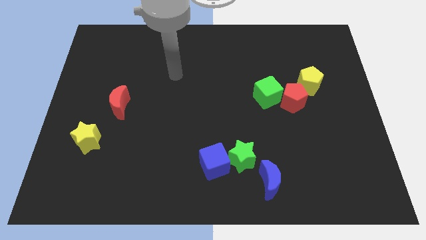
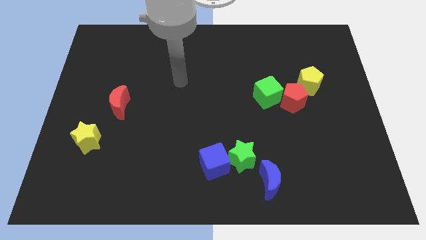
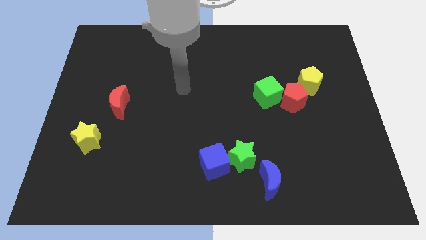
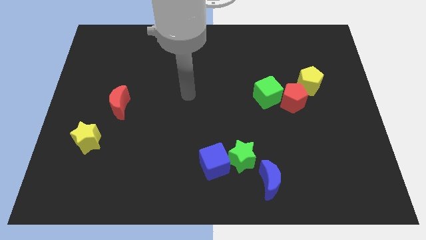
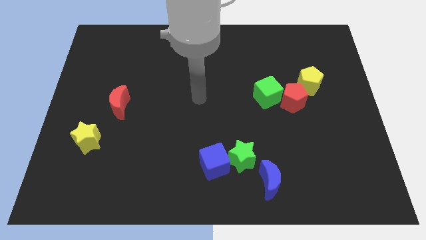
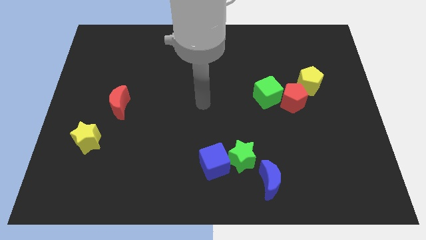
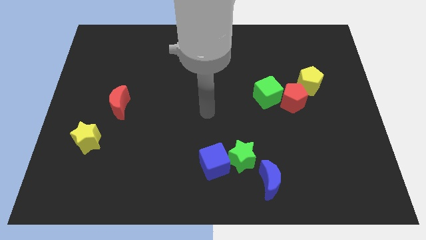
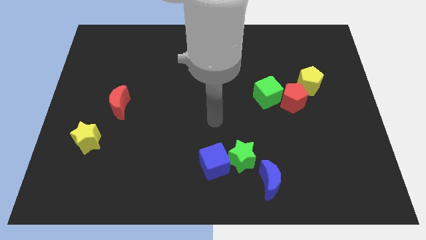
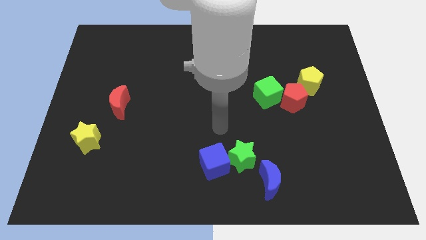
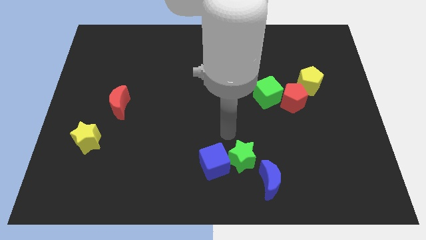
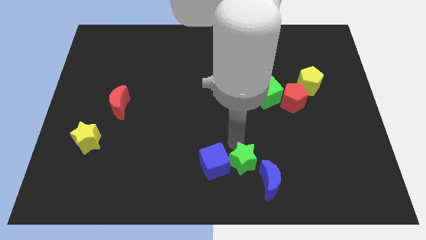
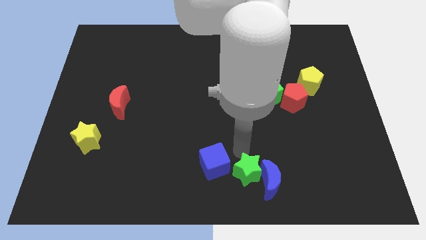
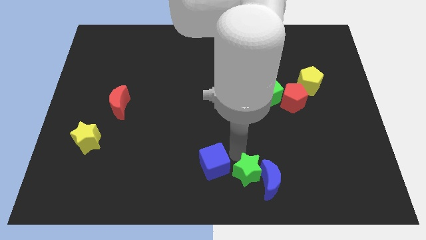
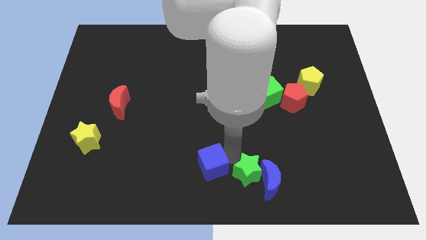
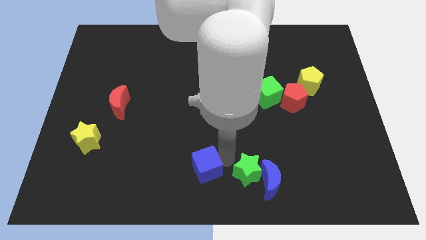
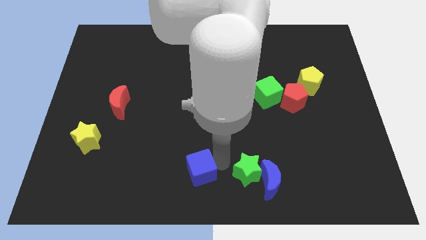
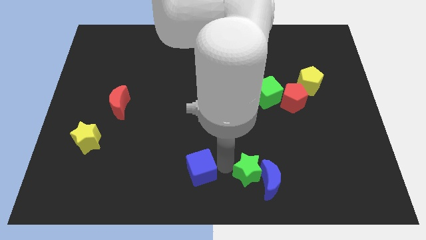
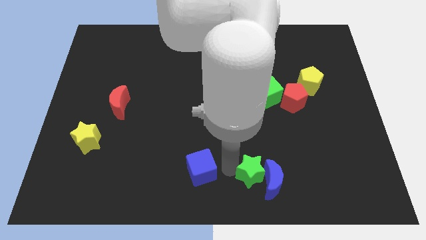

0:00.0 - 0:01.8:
pull the blue cube apart from the green star

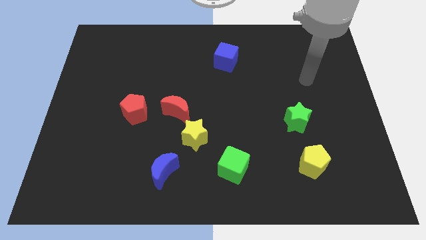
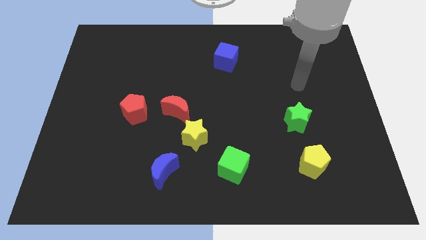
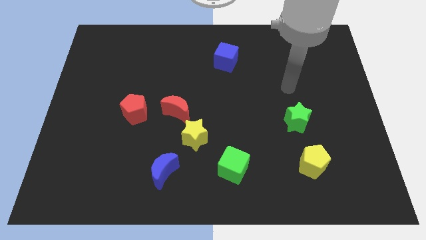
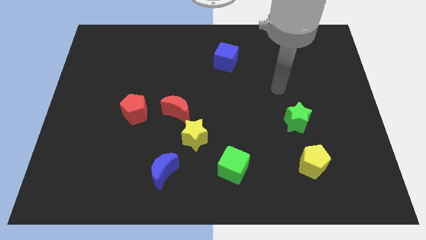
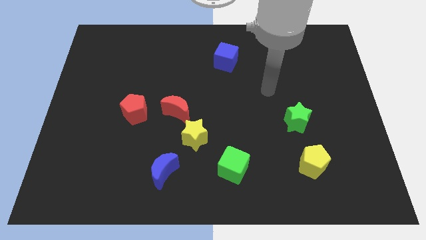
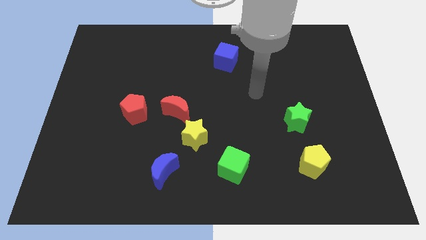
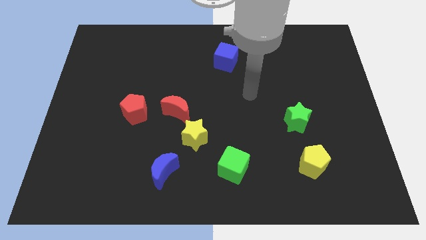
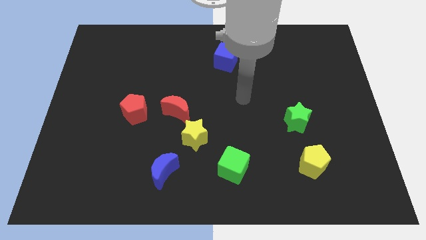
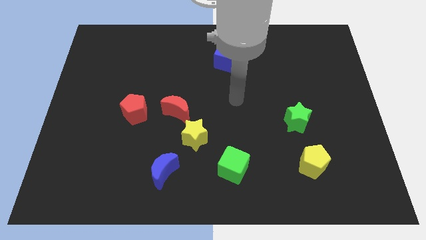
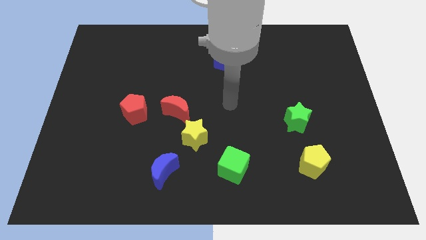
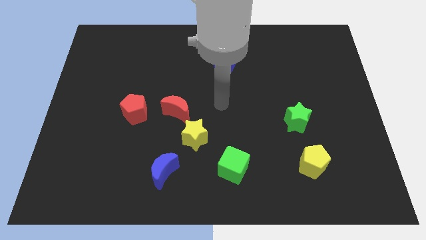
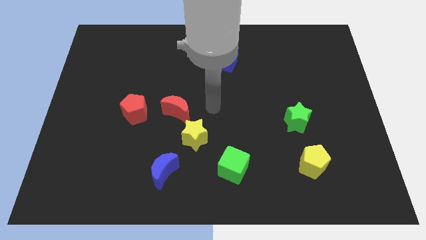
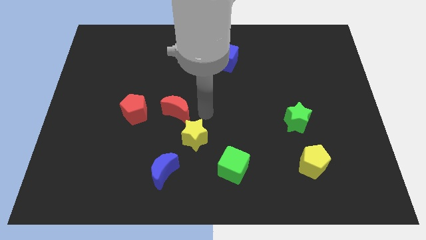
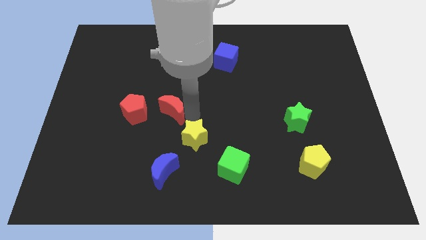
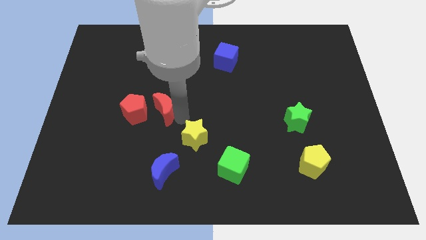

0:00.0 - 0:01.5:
pull the yellow star apart from the red moon

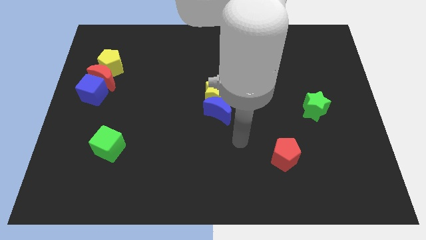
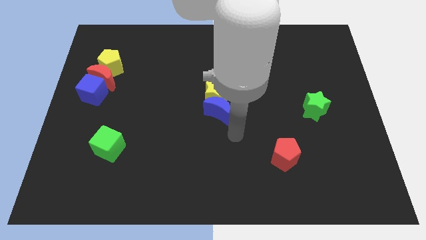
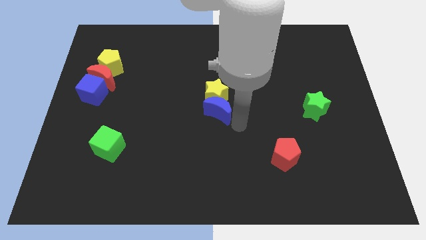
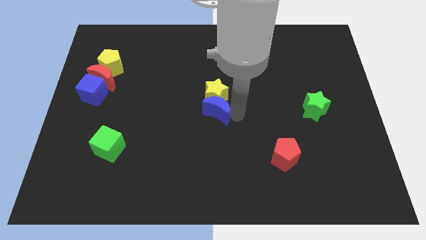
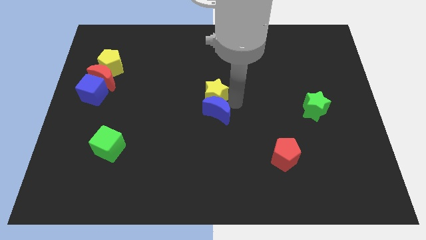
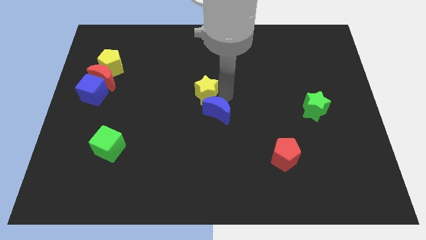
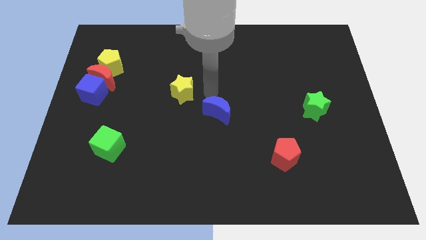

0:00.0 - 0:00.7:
pull the blue moon apart from the yellow star

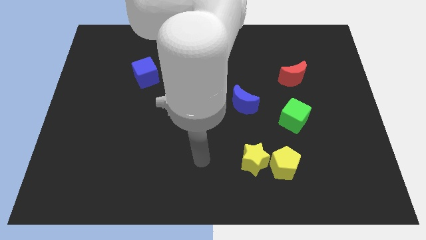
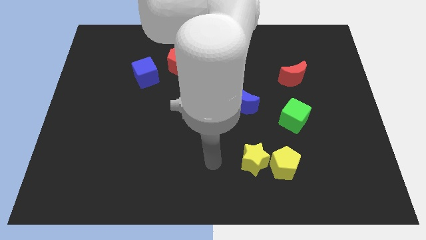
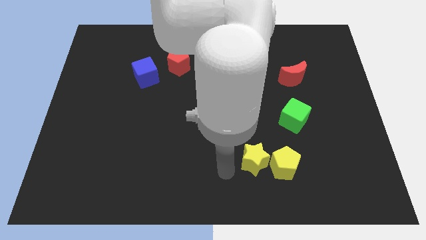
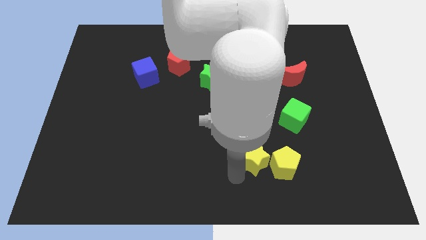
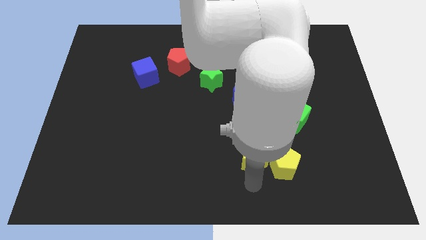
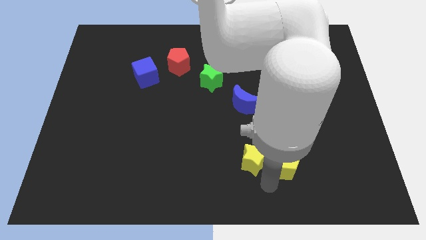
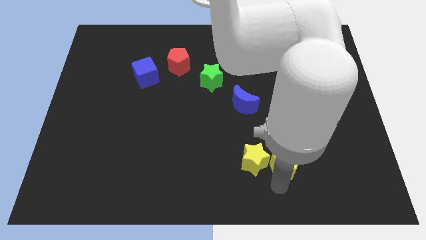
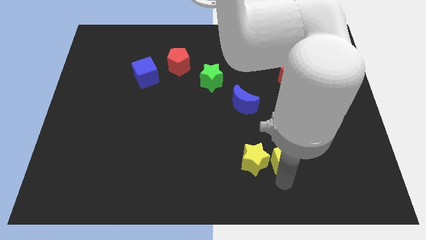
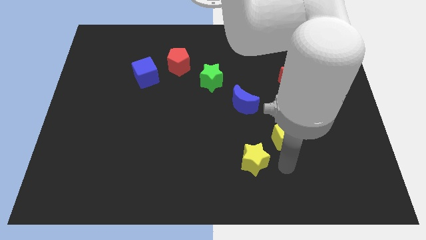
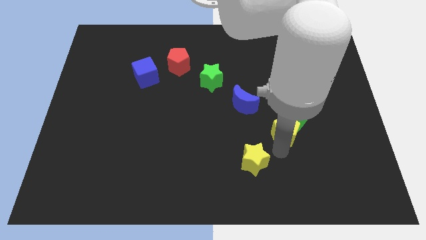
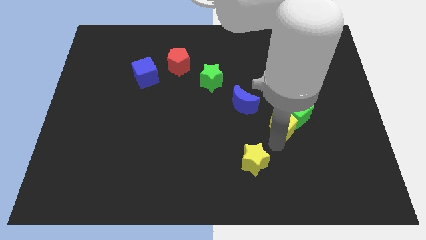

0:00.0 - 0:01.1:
move the yellow star away from the yellow pentagon

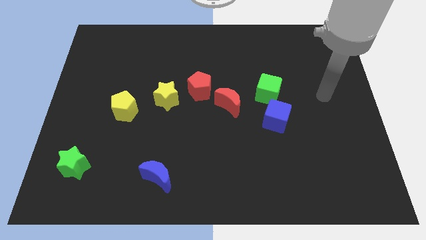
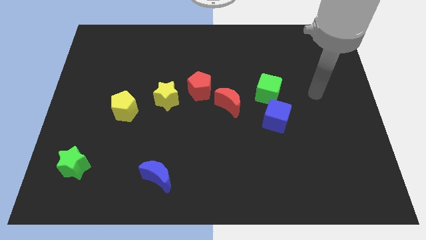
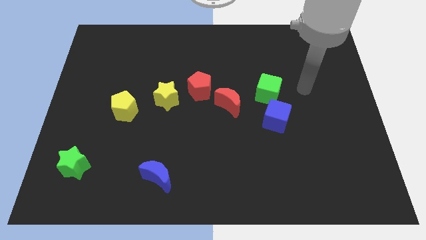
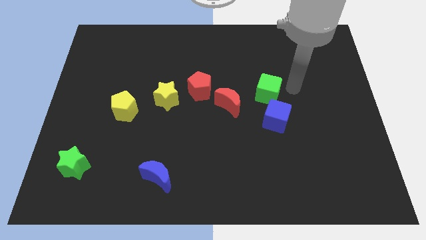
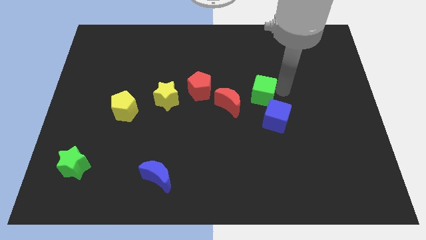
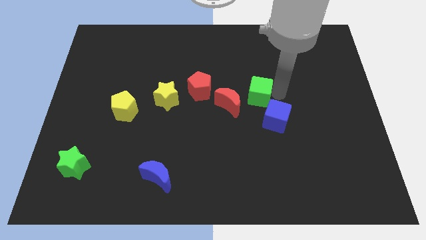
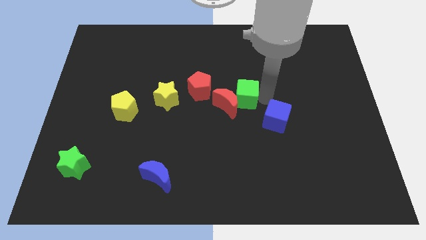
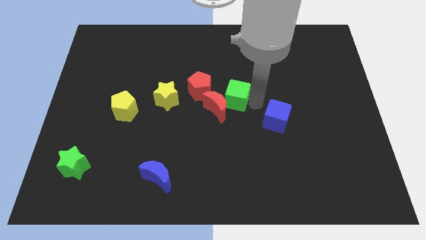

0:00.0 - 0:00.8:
move the blue cube away from the green cube

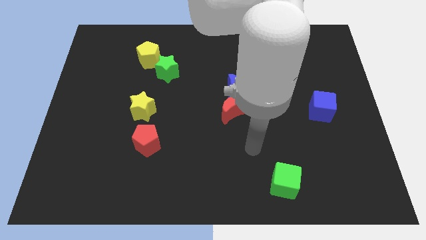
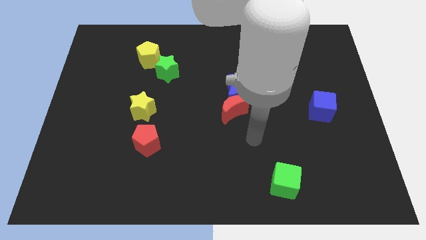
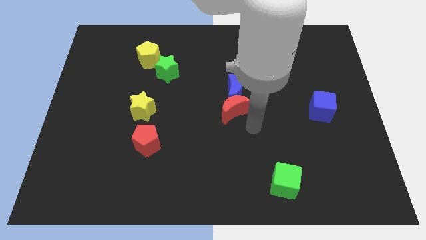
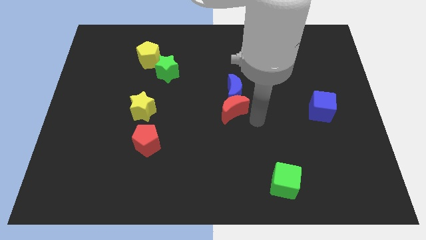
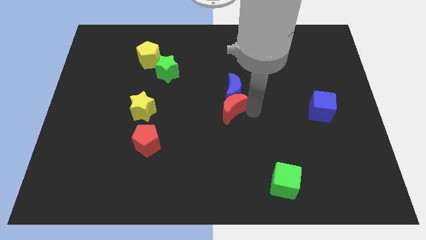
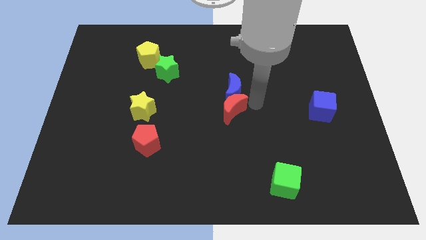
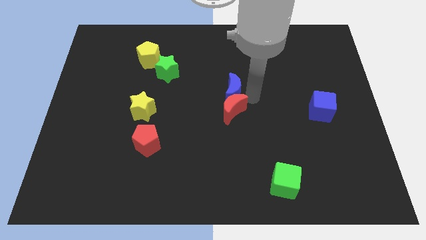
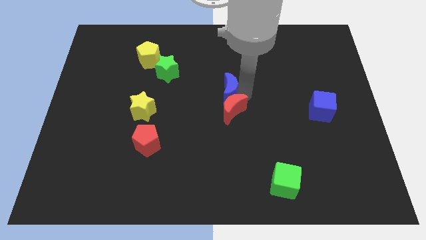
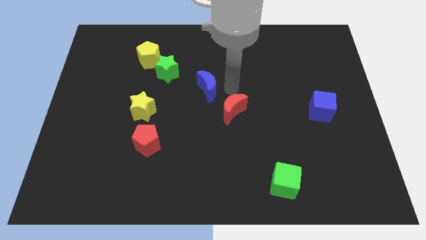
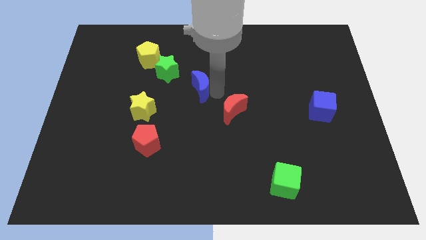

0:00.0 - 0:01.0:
pull the red moon apart from the blue moon

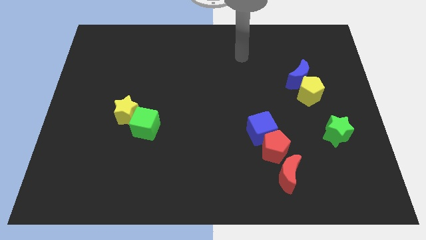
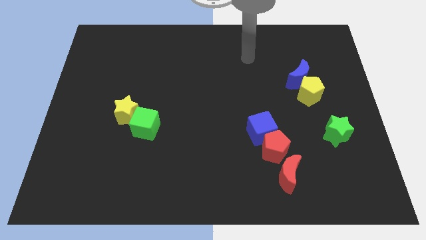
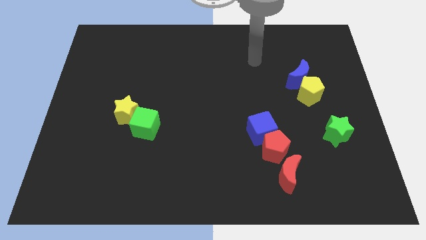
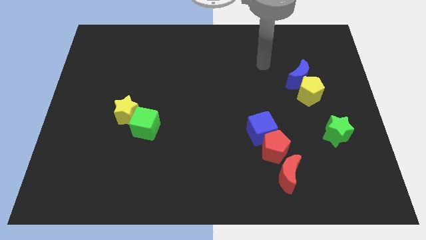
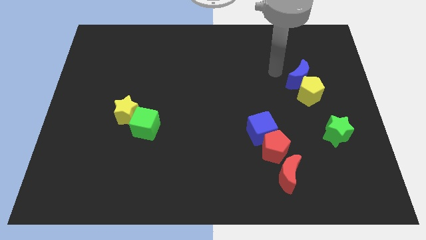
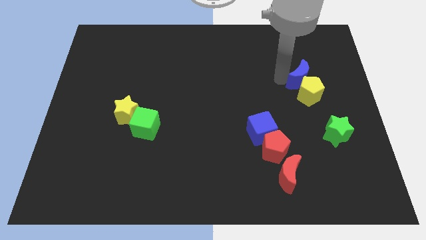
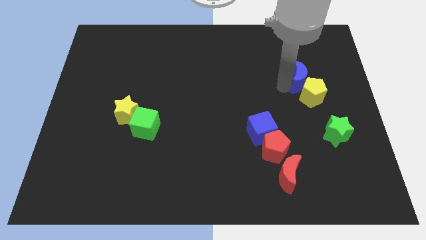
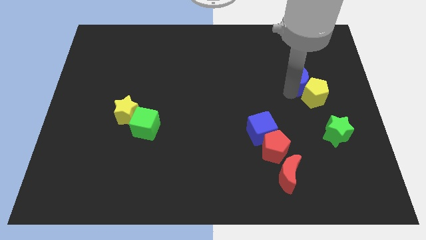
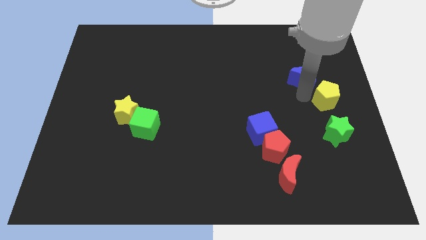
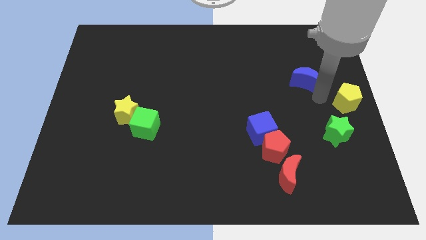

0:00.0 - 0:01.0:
separate the blue moon from the yellow pentagon

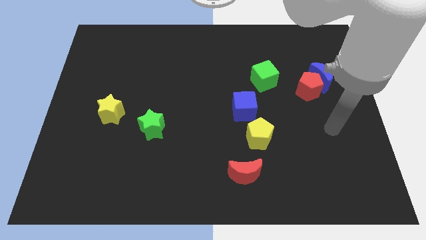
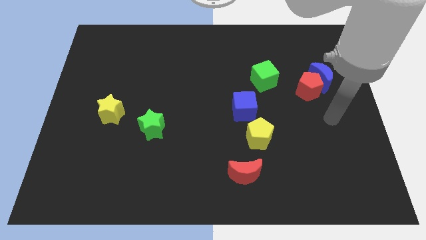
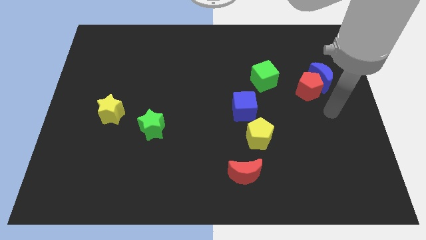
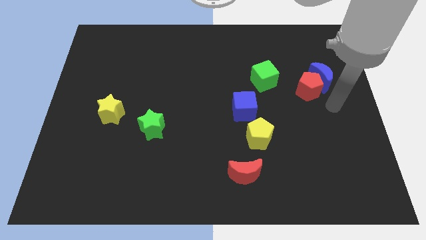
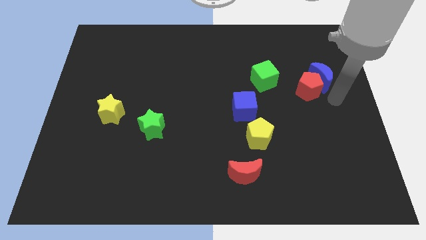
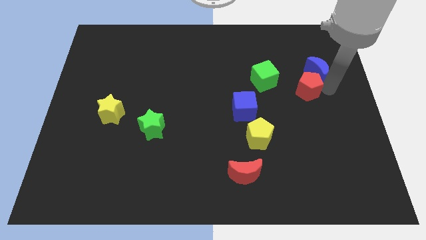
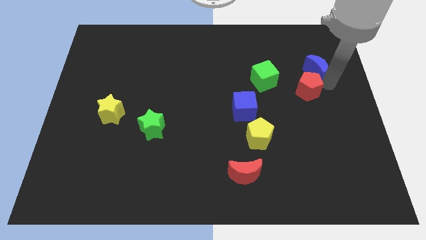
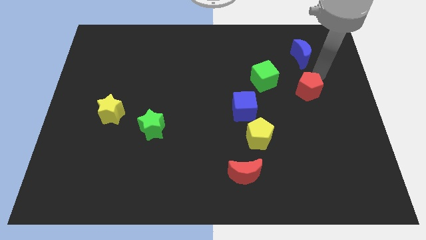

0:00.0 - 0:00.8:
move the red pentagon away from the blue moon

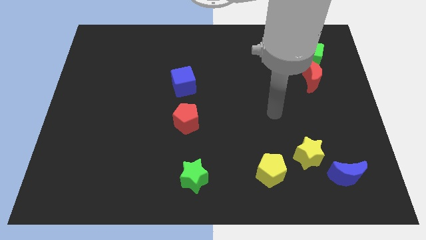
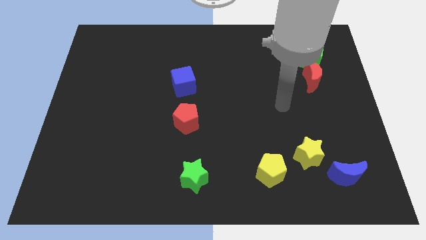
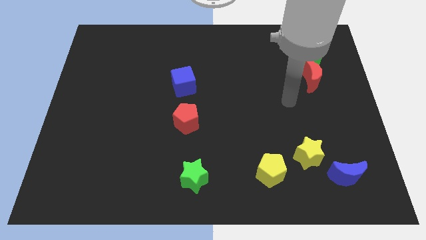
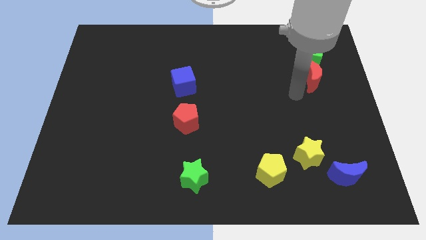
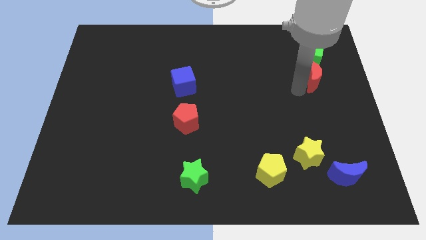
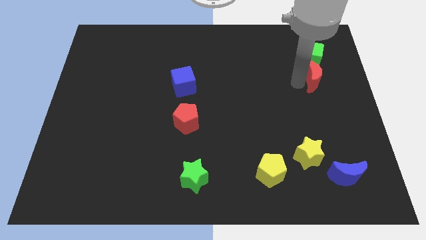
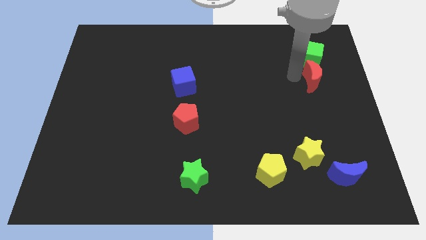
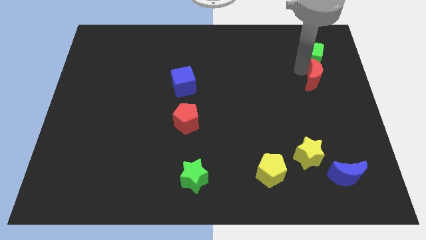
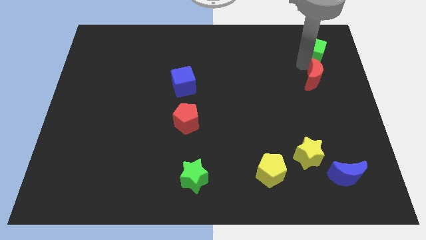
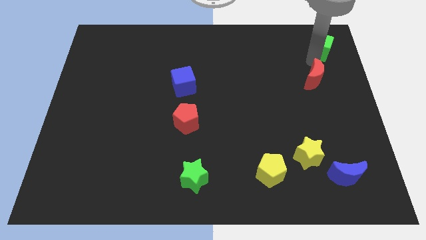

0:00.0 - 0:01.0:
separate the red moon from the green cube
